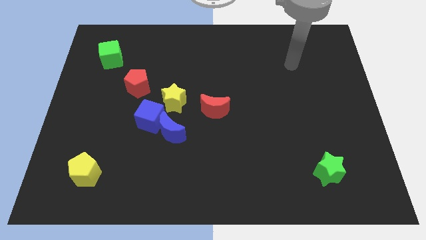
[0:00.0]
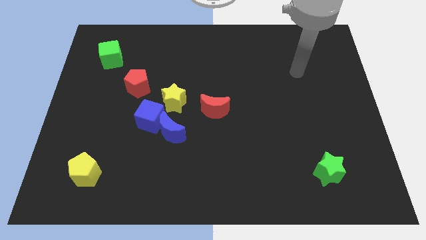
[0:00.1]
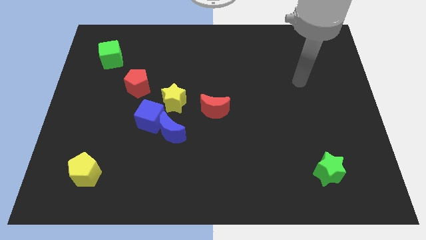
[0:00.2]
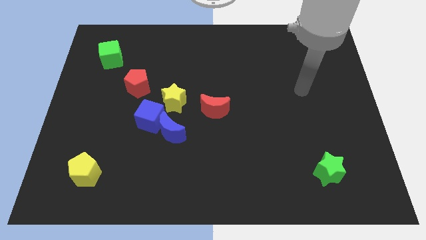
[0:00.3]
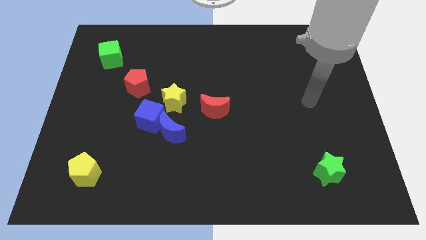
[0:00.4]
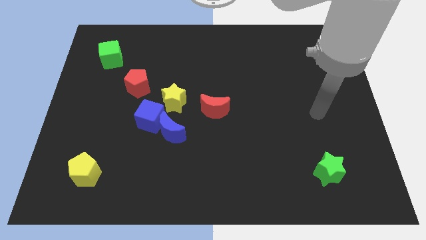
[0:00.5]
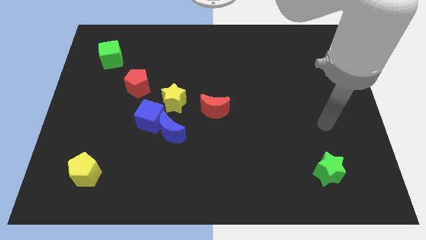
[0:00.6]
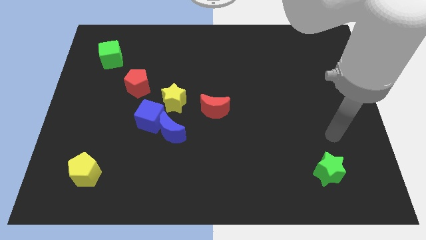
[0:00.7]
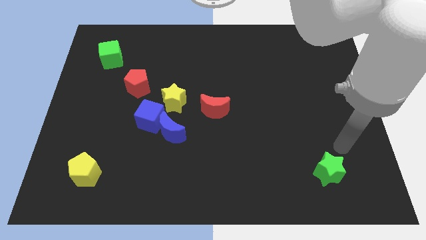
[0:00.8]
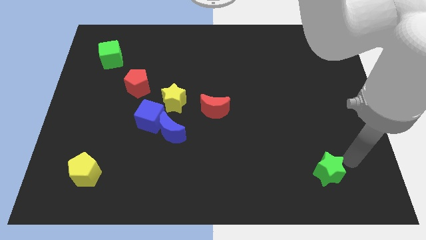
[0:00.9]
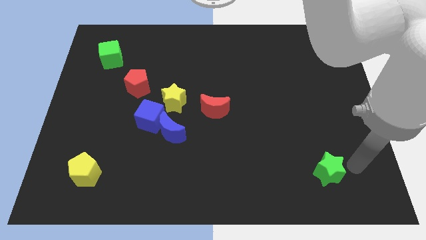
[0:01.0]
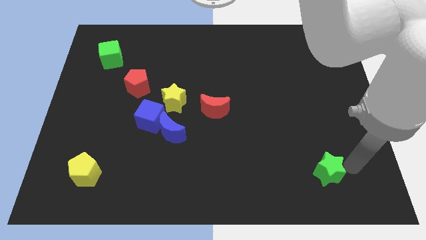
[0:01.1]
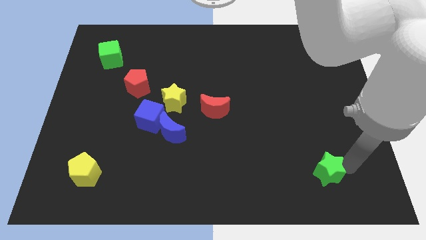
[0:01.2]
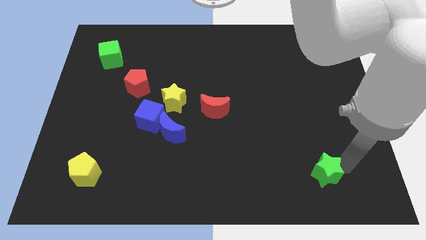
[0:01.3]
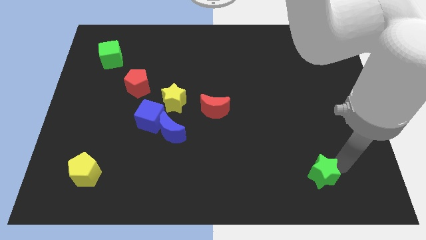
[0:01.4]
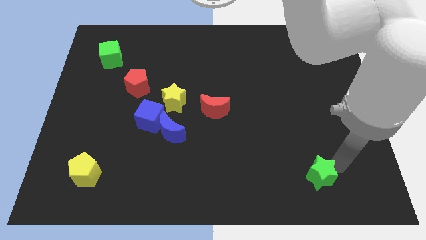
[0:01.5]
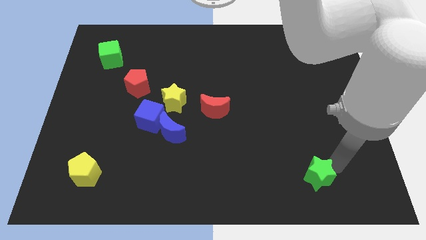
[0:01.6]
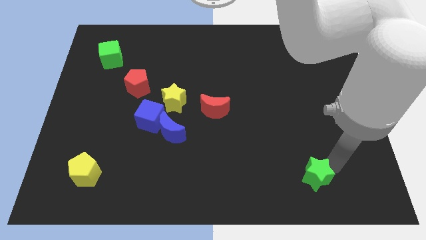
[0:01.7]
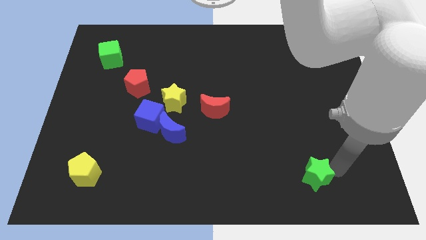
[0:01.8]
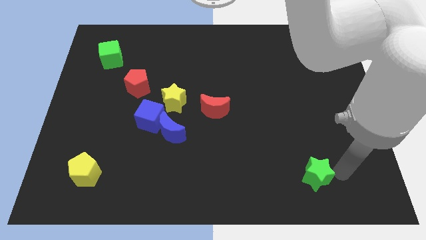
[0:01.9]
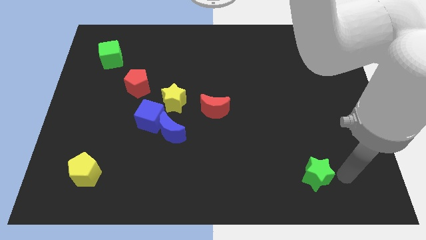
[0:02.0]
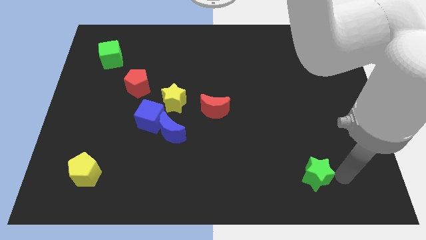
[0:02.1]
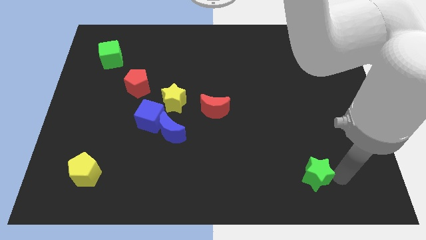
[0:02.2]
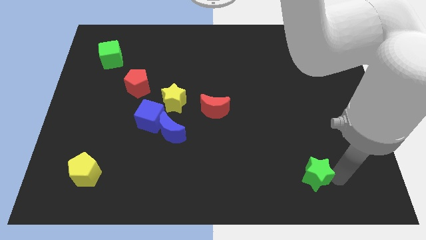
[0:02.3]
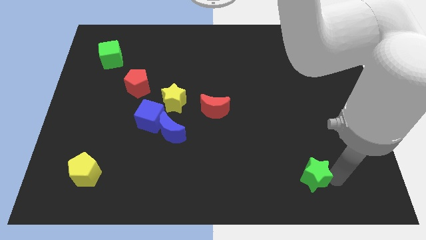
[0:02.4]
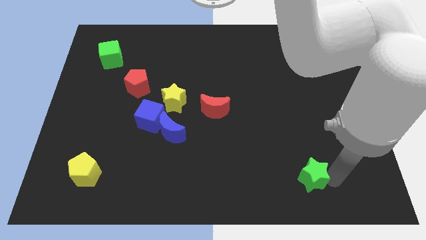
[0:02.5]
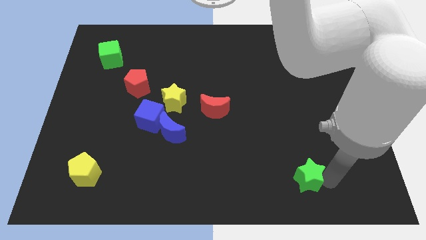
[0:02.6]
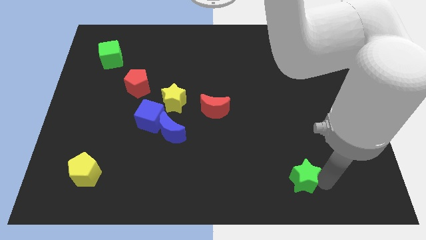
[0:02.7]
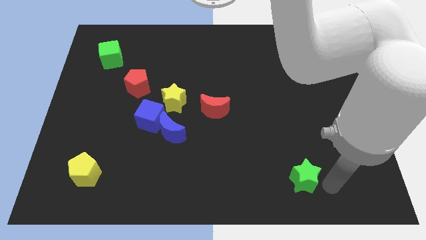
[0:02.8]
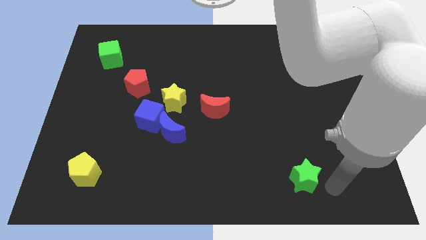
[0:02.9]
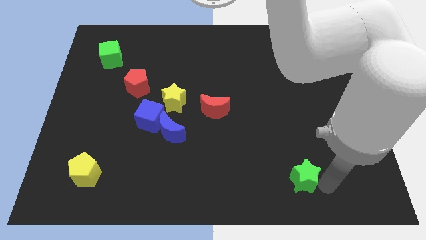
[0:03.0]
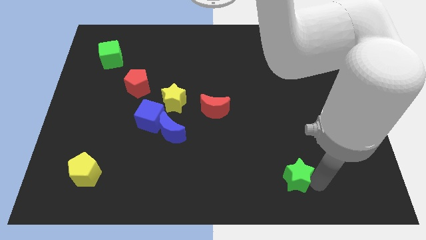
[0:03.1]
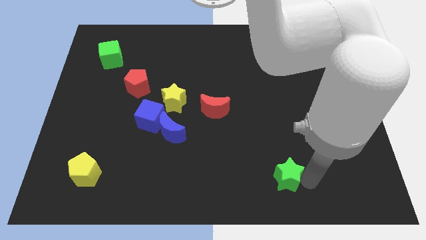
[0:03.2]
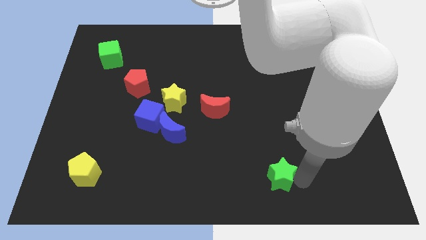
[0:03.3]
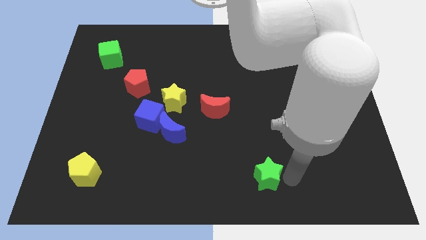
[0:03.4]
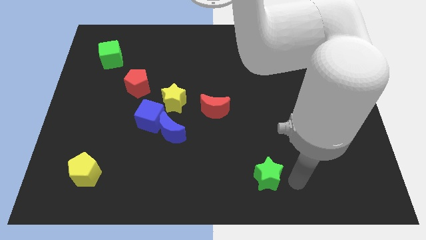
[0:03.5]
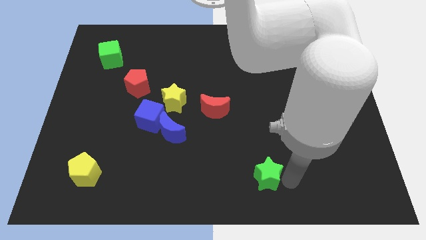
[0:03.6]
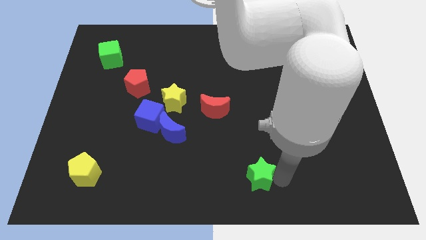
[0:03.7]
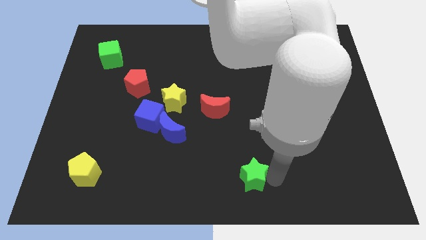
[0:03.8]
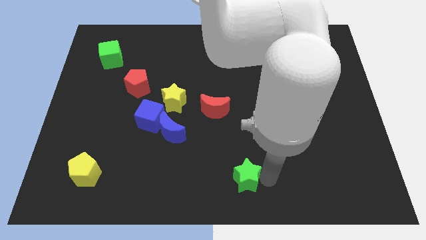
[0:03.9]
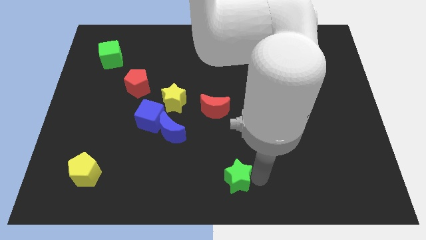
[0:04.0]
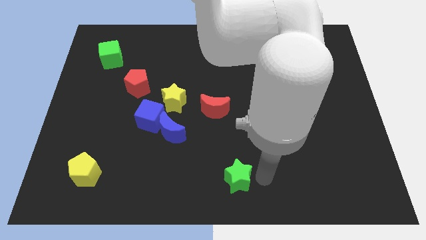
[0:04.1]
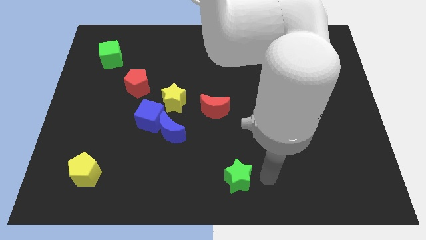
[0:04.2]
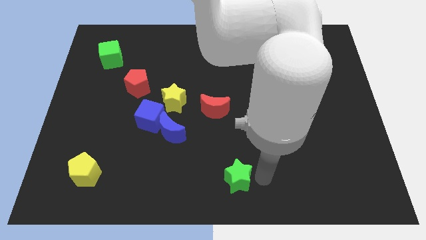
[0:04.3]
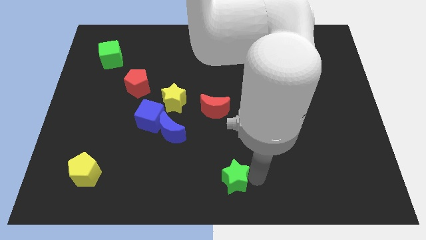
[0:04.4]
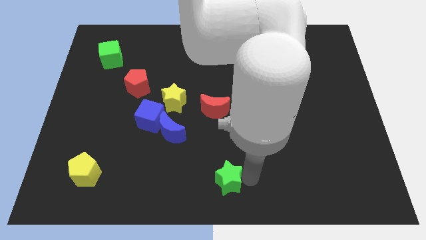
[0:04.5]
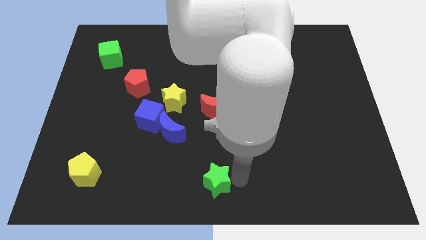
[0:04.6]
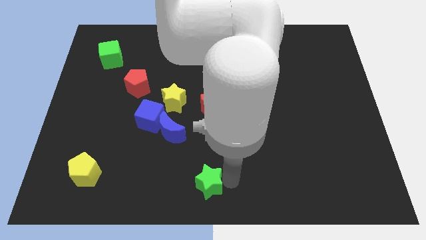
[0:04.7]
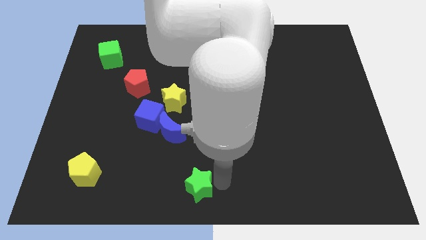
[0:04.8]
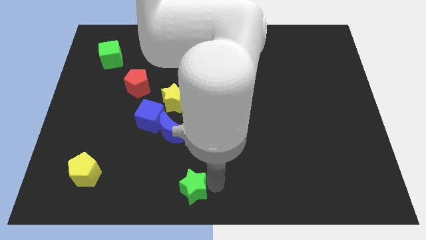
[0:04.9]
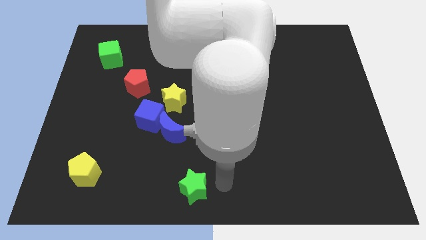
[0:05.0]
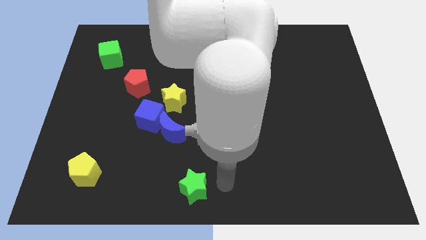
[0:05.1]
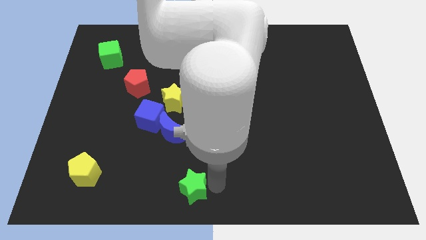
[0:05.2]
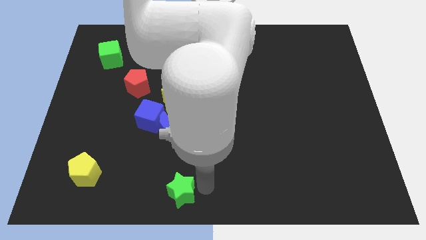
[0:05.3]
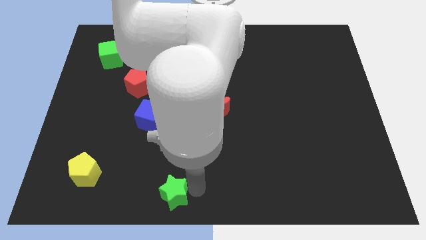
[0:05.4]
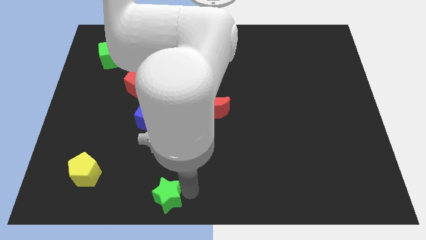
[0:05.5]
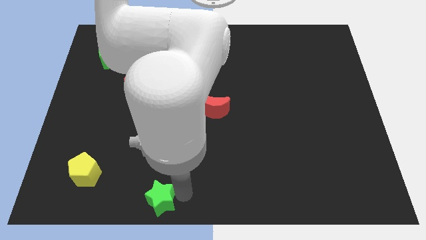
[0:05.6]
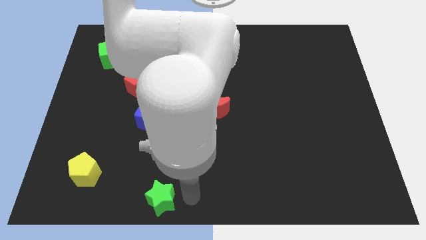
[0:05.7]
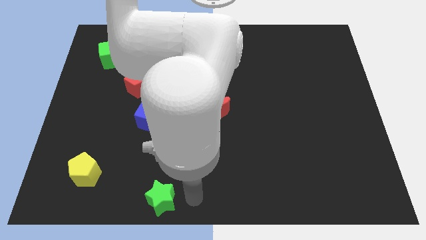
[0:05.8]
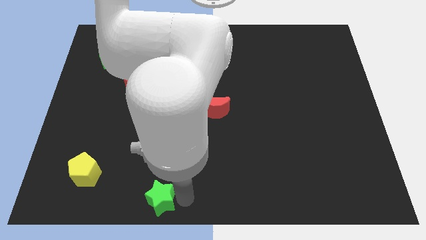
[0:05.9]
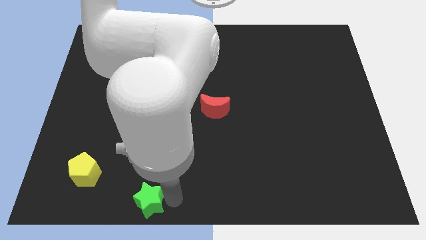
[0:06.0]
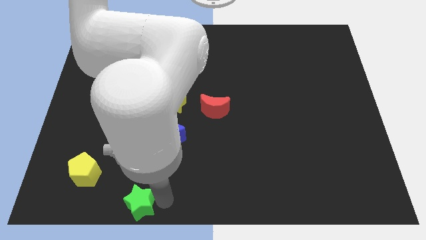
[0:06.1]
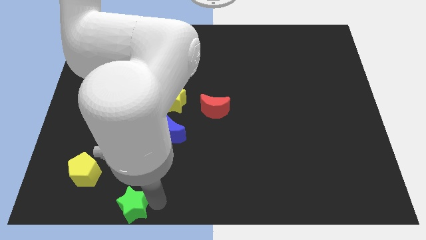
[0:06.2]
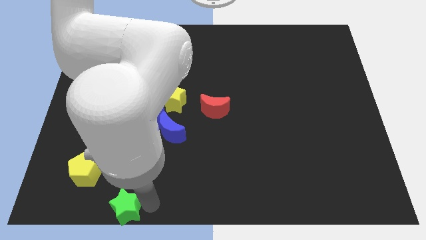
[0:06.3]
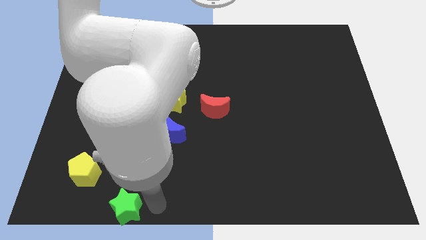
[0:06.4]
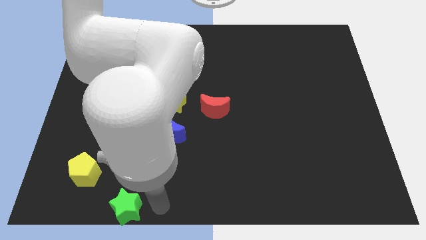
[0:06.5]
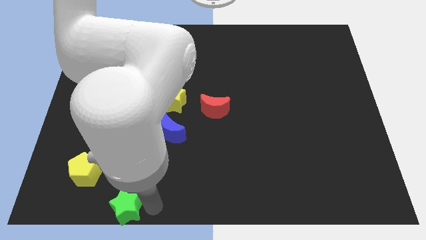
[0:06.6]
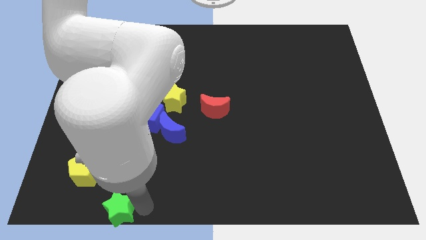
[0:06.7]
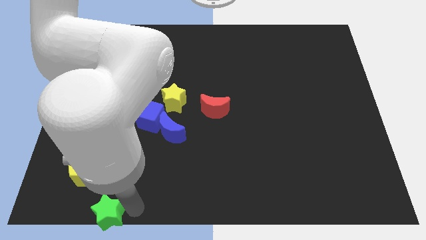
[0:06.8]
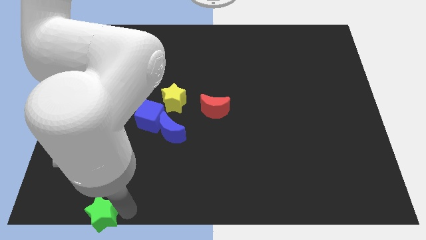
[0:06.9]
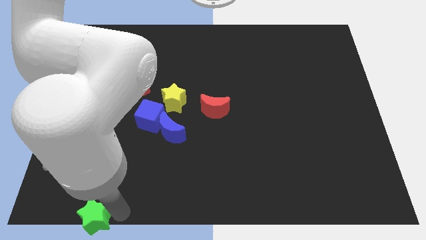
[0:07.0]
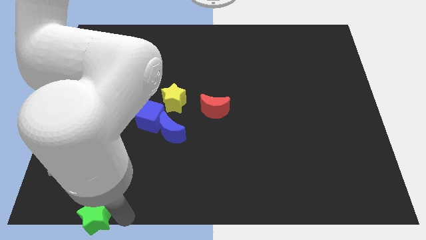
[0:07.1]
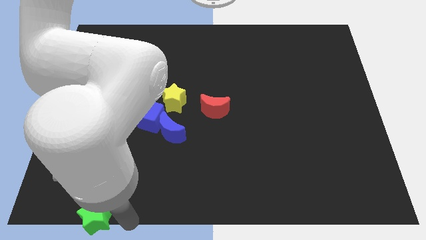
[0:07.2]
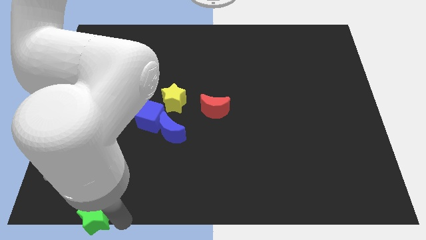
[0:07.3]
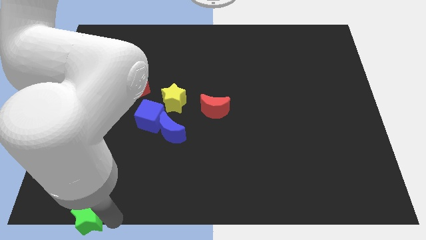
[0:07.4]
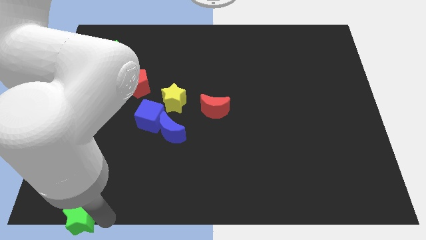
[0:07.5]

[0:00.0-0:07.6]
slide the green star to the lower left corner
